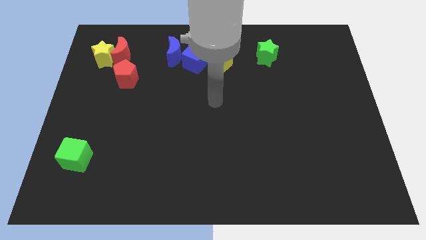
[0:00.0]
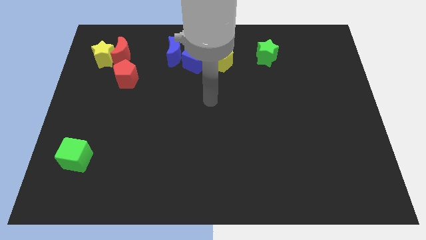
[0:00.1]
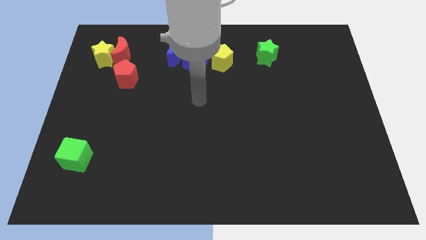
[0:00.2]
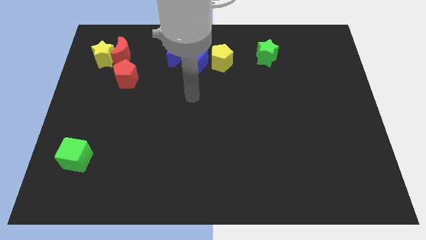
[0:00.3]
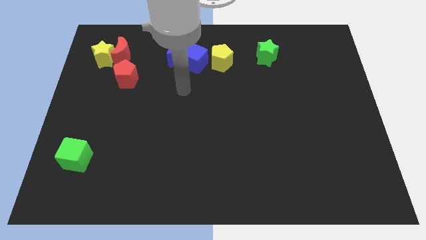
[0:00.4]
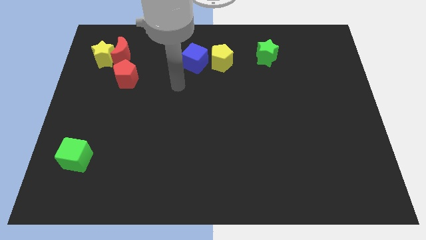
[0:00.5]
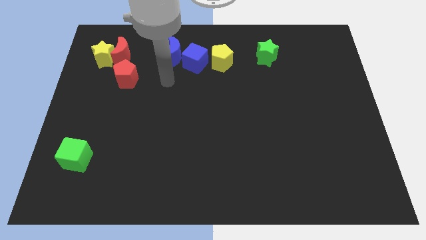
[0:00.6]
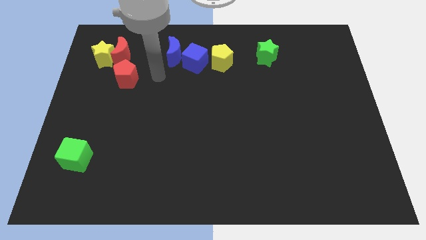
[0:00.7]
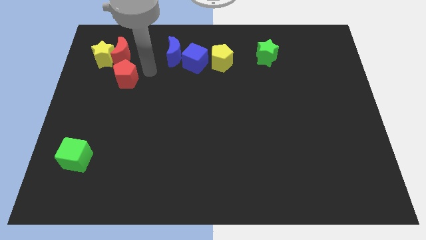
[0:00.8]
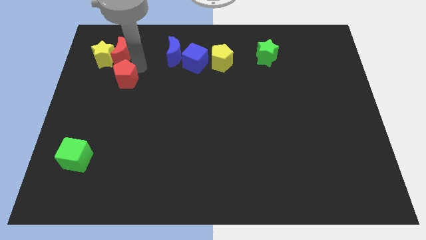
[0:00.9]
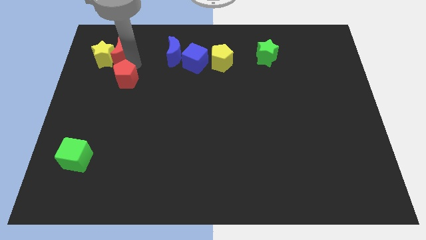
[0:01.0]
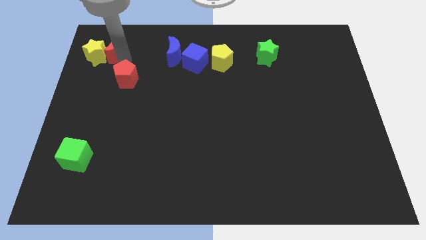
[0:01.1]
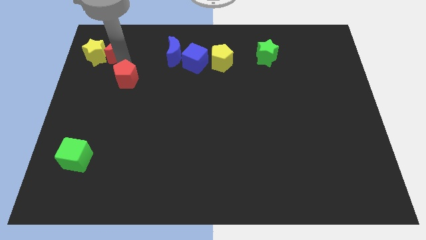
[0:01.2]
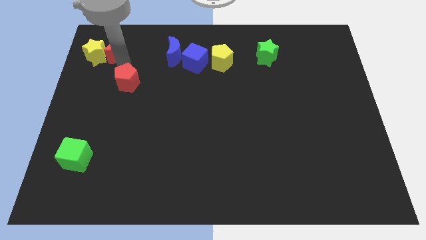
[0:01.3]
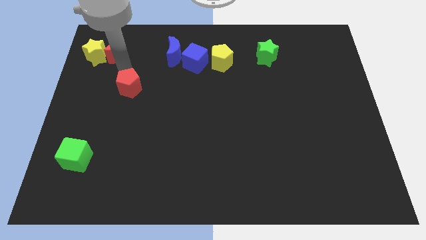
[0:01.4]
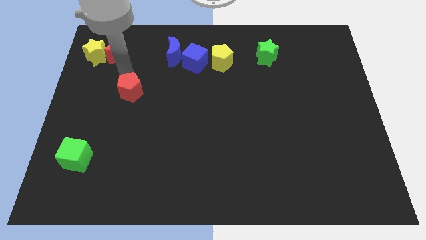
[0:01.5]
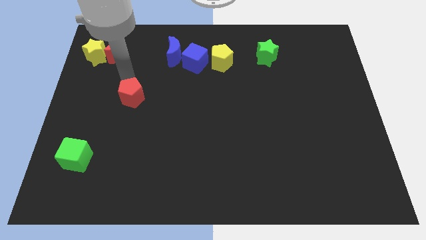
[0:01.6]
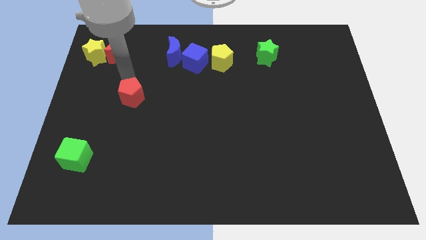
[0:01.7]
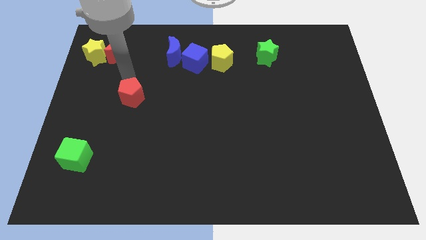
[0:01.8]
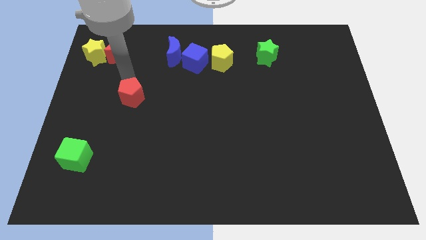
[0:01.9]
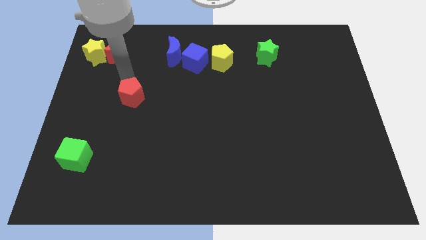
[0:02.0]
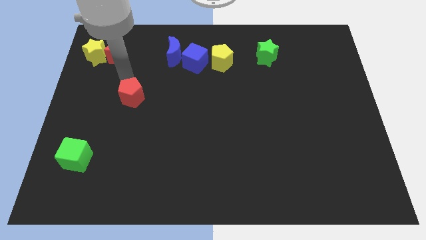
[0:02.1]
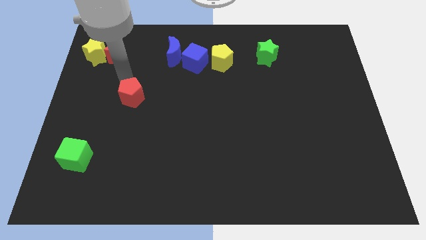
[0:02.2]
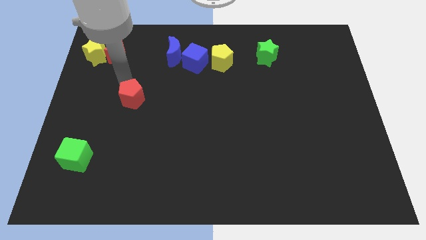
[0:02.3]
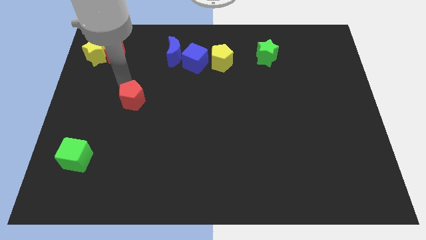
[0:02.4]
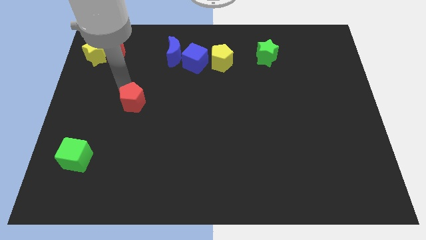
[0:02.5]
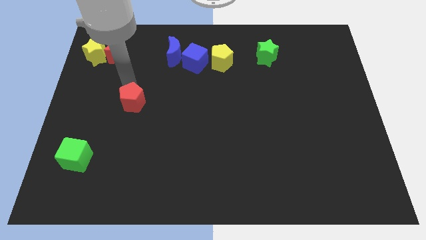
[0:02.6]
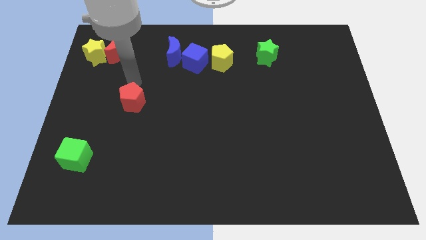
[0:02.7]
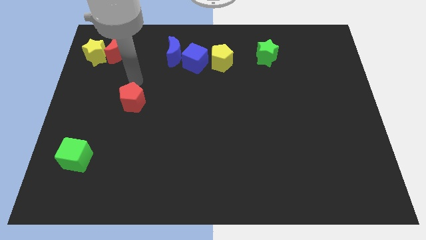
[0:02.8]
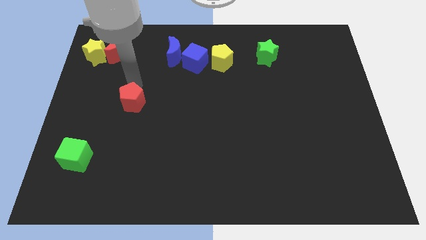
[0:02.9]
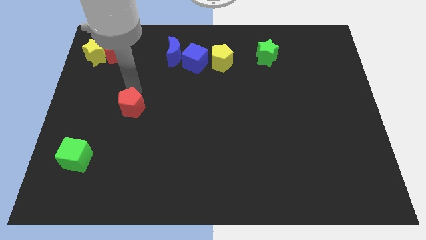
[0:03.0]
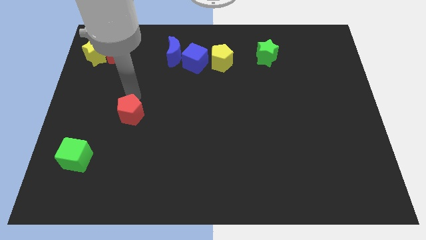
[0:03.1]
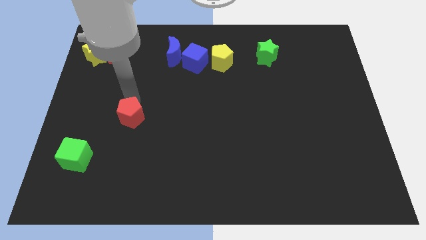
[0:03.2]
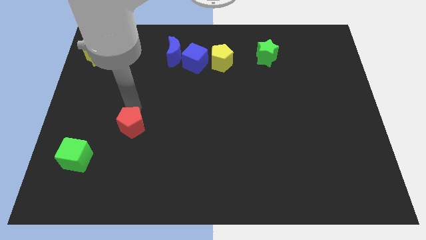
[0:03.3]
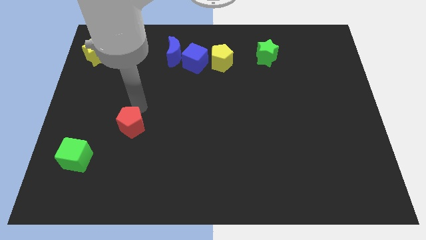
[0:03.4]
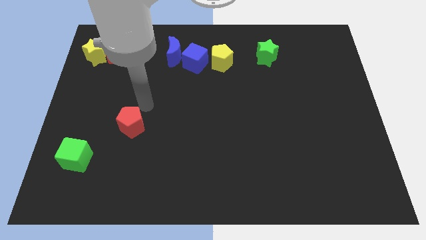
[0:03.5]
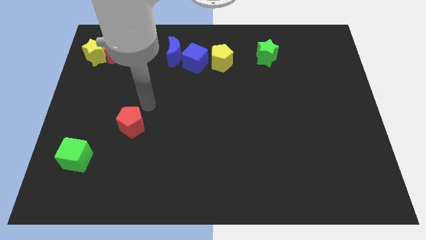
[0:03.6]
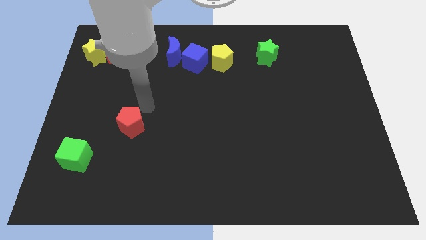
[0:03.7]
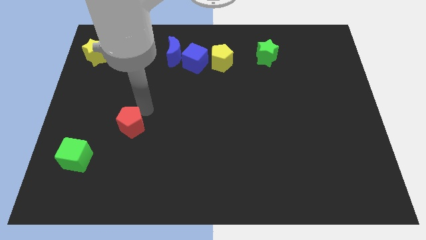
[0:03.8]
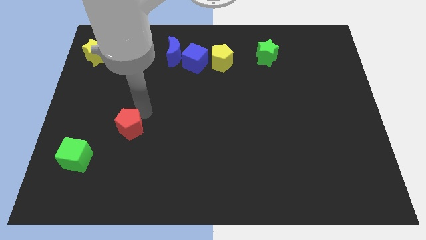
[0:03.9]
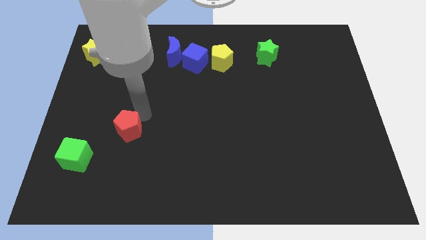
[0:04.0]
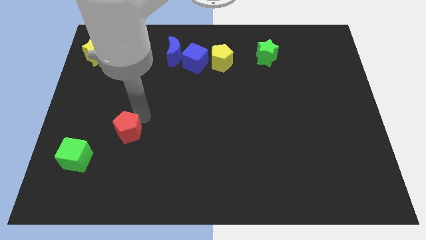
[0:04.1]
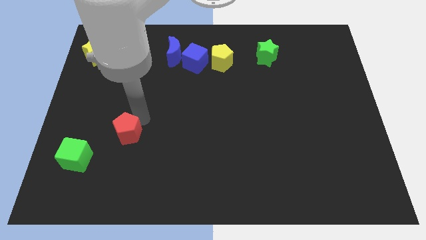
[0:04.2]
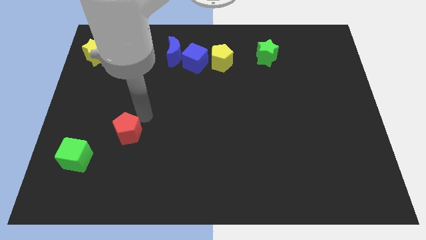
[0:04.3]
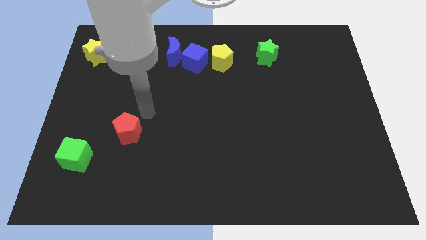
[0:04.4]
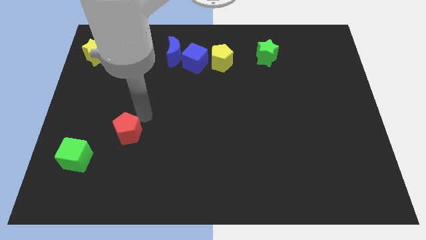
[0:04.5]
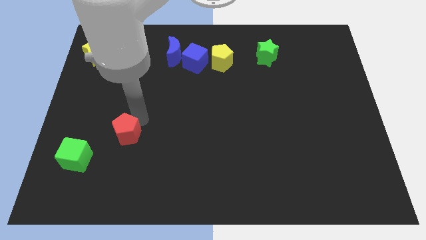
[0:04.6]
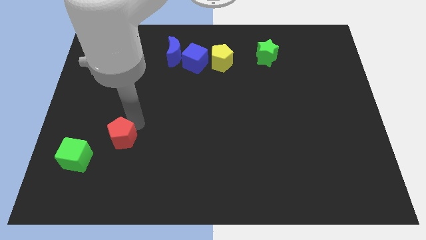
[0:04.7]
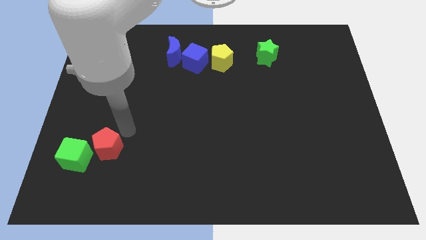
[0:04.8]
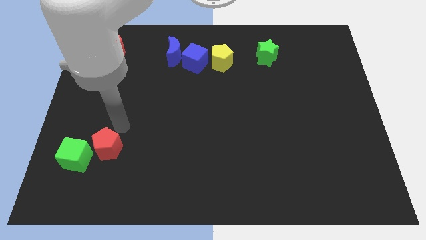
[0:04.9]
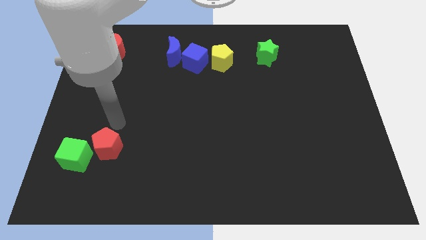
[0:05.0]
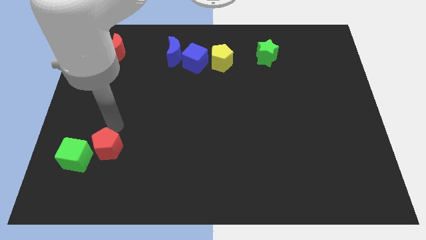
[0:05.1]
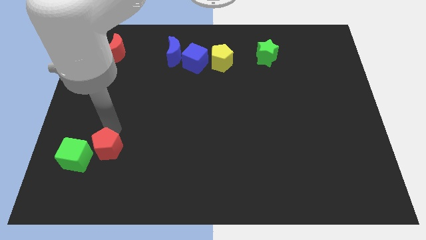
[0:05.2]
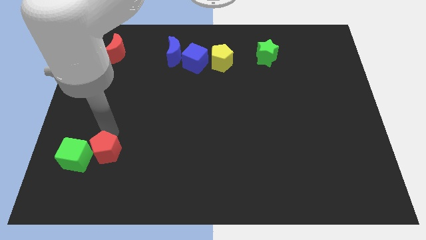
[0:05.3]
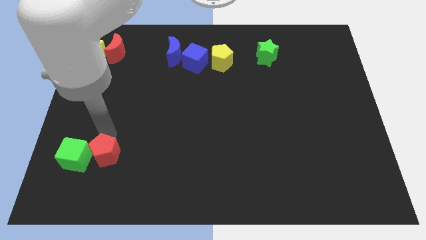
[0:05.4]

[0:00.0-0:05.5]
put the red pentagon to the bottom right of the green cube

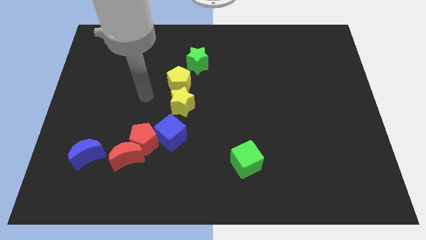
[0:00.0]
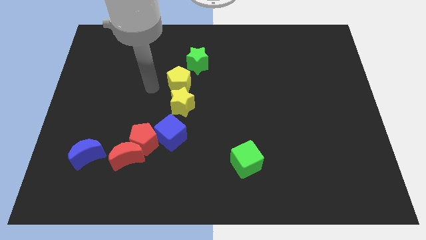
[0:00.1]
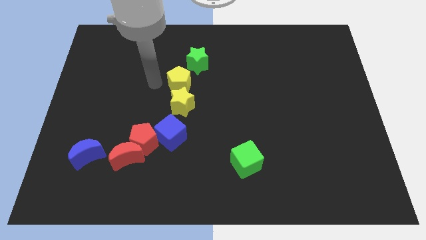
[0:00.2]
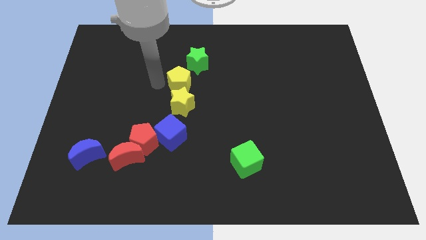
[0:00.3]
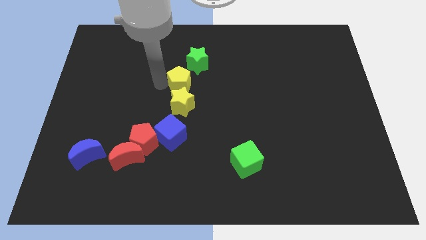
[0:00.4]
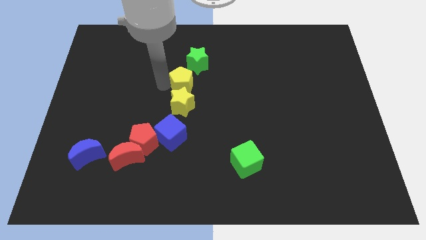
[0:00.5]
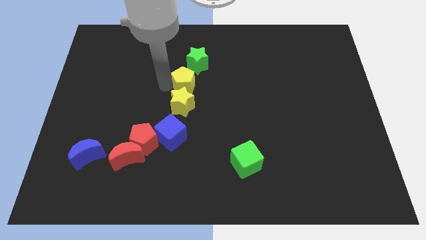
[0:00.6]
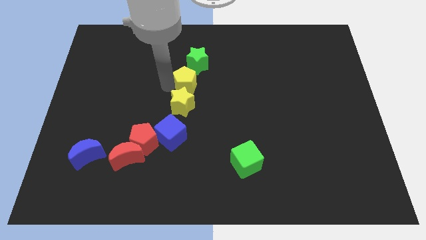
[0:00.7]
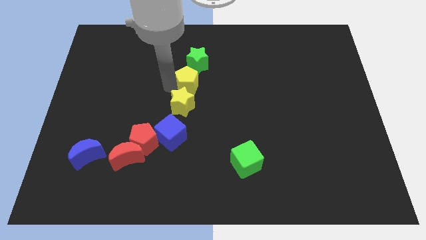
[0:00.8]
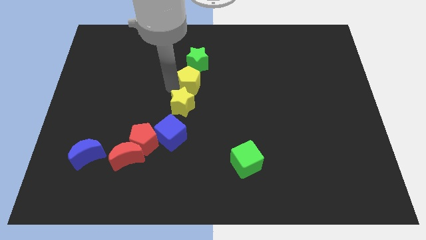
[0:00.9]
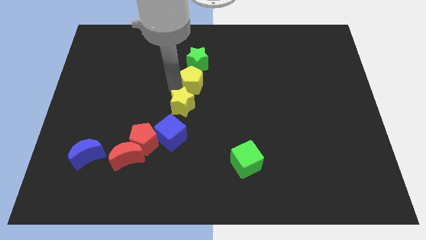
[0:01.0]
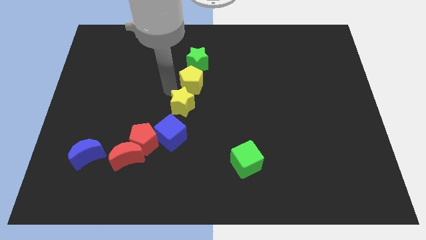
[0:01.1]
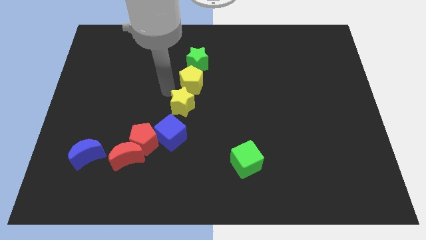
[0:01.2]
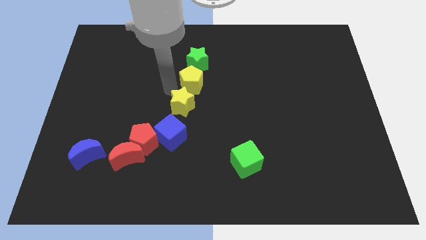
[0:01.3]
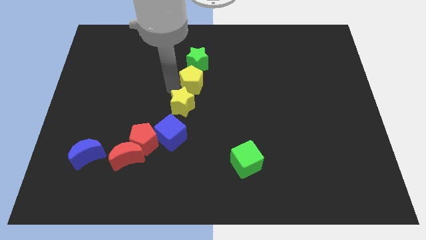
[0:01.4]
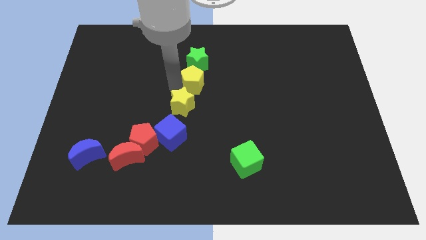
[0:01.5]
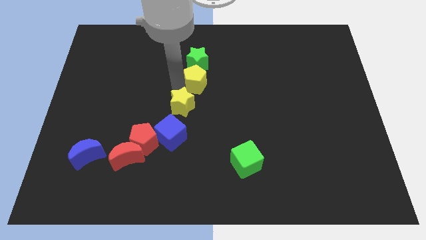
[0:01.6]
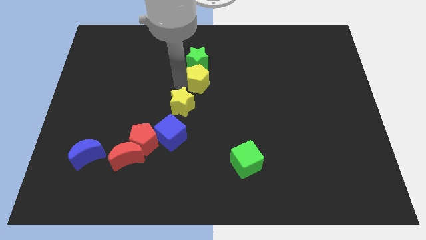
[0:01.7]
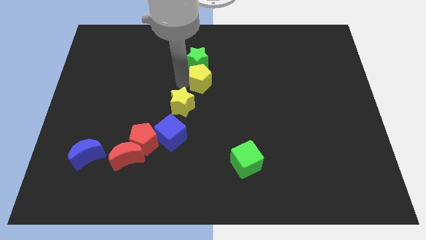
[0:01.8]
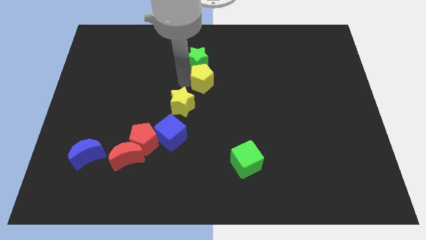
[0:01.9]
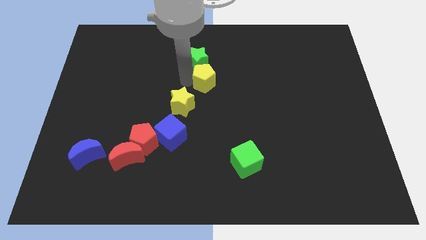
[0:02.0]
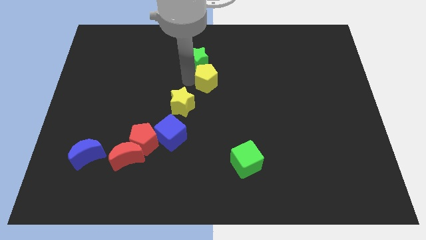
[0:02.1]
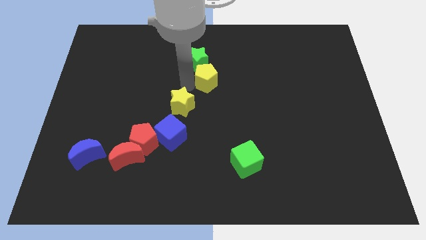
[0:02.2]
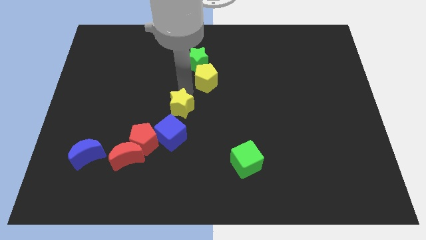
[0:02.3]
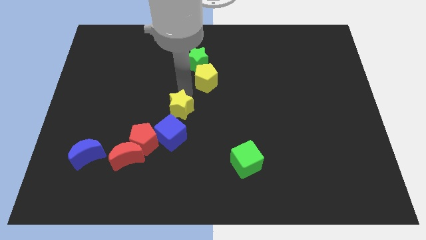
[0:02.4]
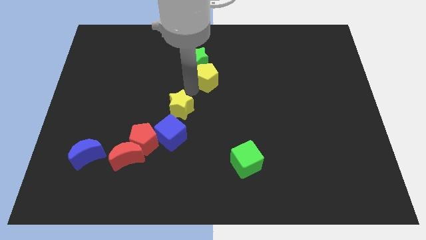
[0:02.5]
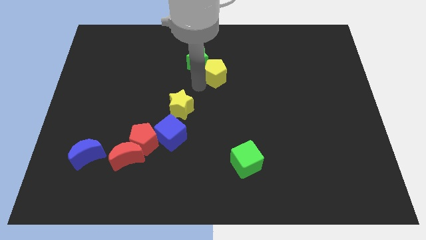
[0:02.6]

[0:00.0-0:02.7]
put the yellow pentagon just right of the green star
